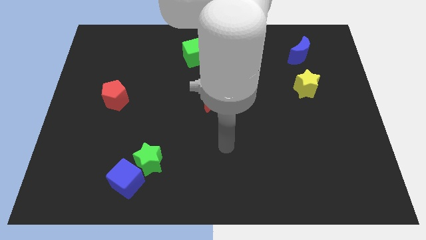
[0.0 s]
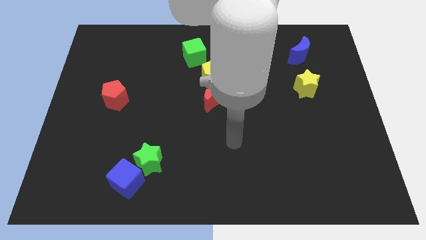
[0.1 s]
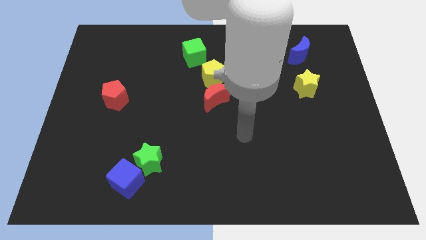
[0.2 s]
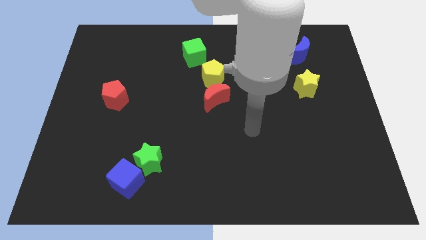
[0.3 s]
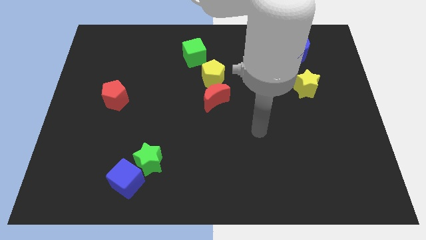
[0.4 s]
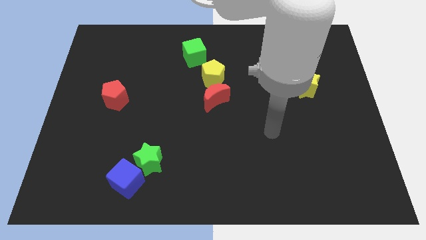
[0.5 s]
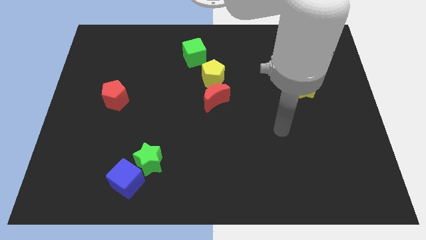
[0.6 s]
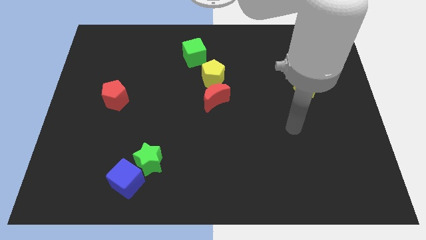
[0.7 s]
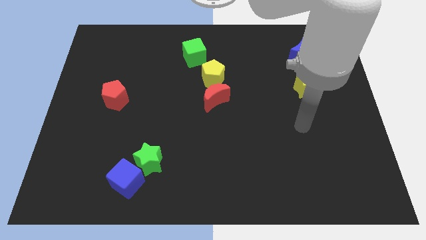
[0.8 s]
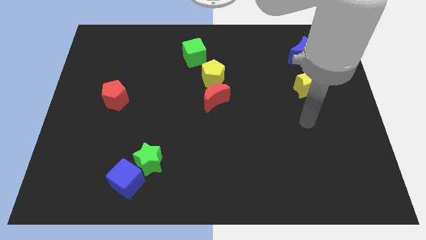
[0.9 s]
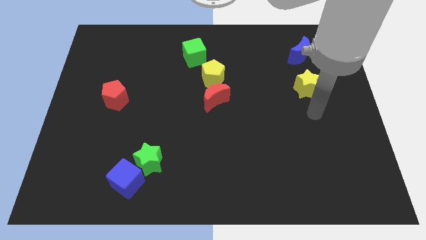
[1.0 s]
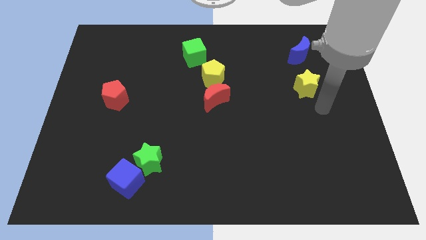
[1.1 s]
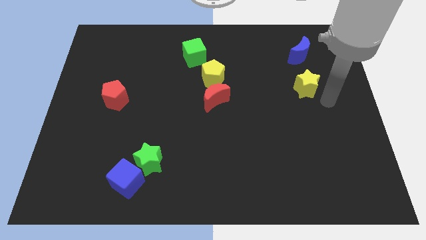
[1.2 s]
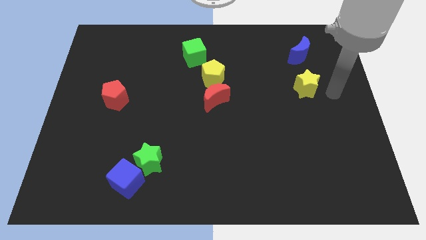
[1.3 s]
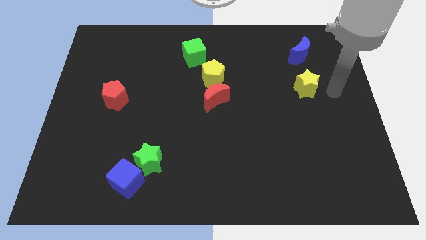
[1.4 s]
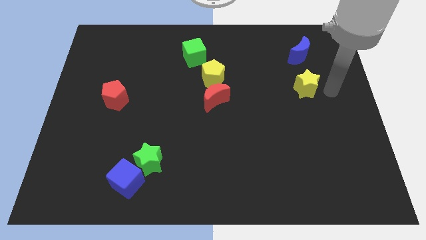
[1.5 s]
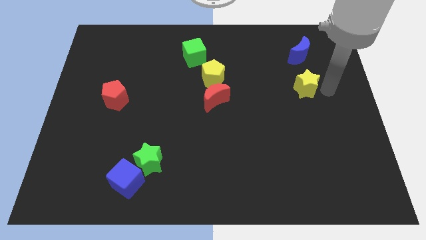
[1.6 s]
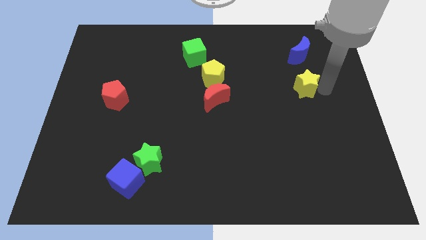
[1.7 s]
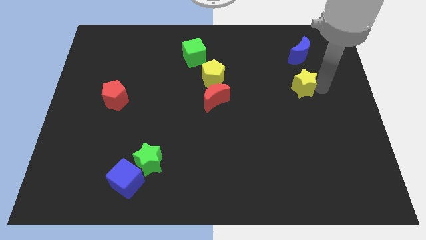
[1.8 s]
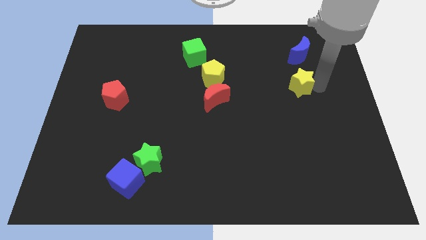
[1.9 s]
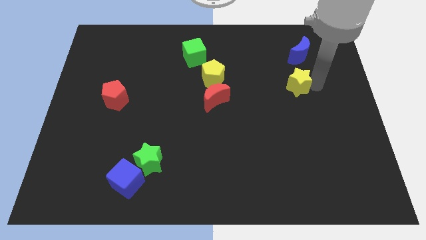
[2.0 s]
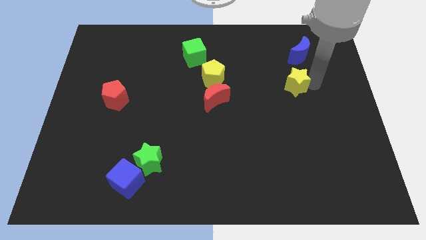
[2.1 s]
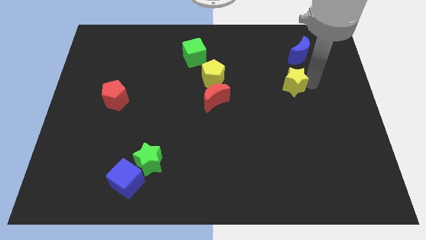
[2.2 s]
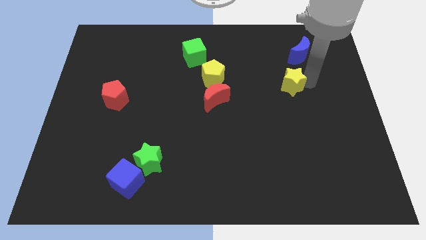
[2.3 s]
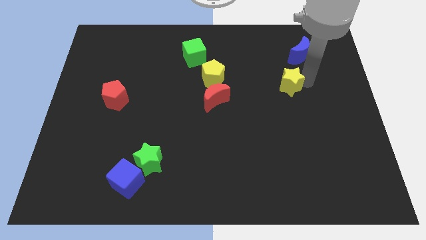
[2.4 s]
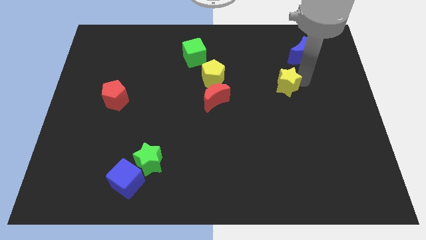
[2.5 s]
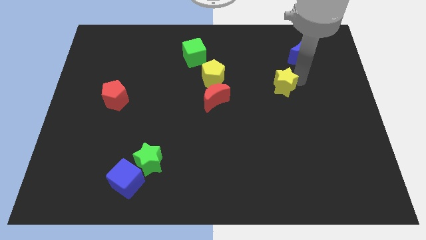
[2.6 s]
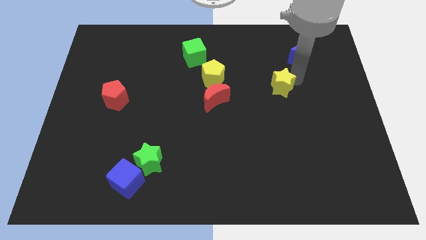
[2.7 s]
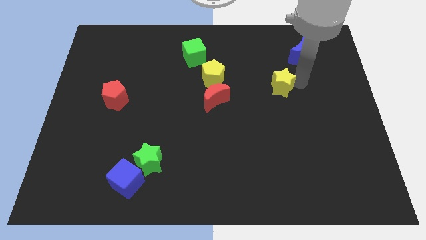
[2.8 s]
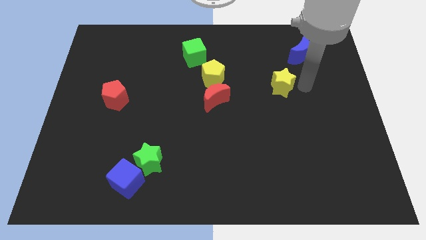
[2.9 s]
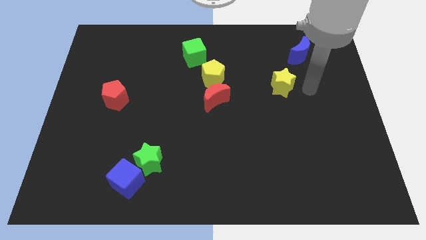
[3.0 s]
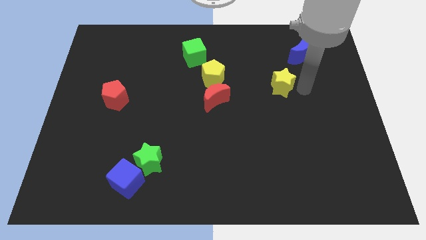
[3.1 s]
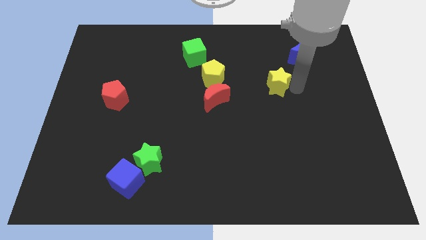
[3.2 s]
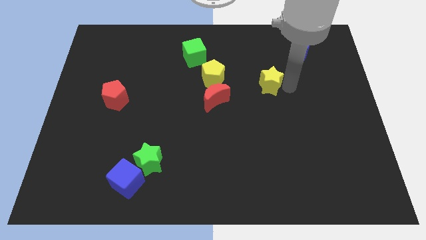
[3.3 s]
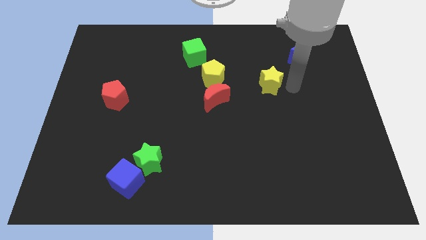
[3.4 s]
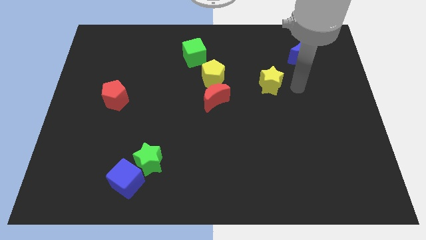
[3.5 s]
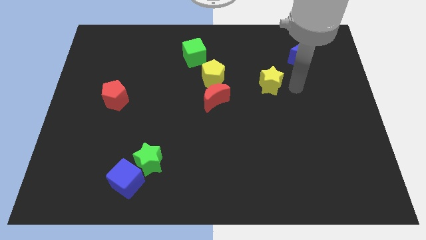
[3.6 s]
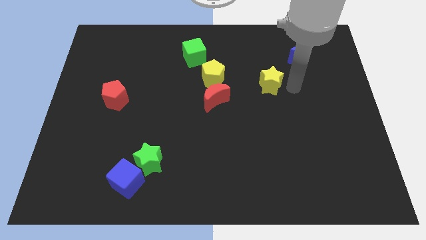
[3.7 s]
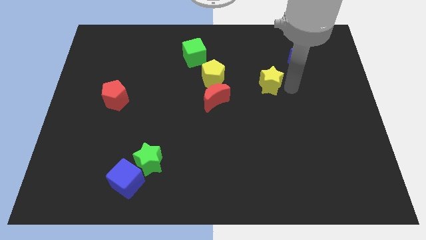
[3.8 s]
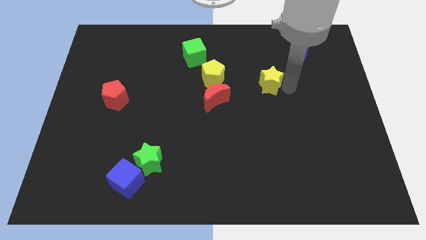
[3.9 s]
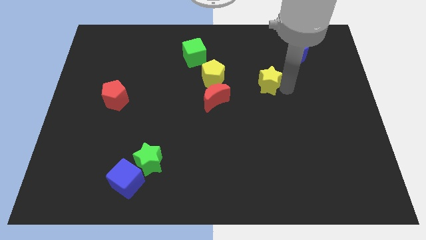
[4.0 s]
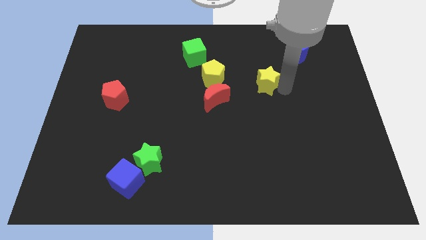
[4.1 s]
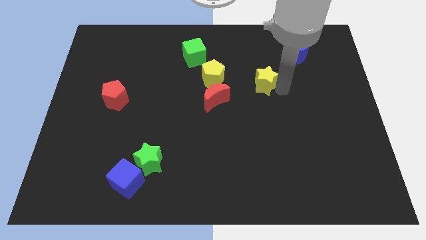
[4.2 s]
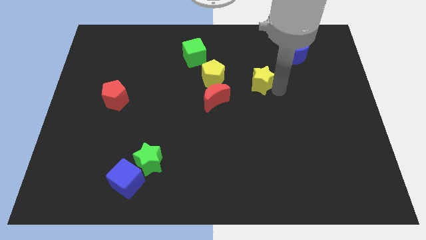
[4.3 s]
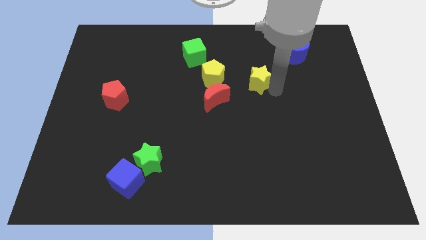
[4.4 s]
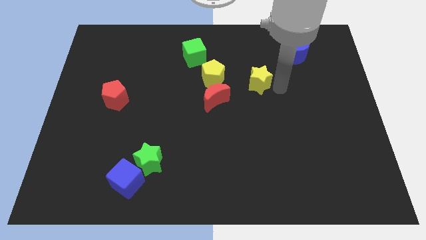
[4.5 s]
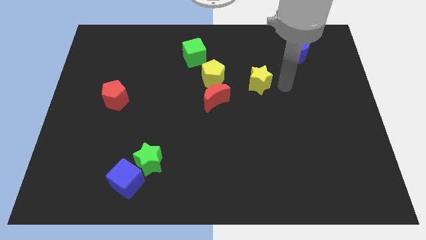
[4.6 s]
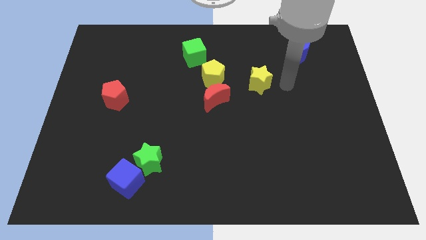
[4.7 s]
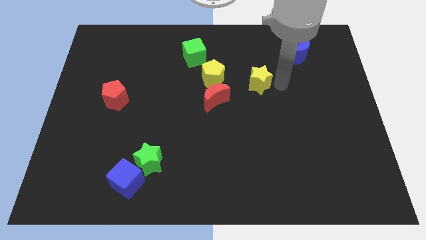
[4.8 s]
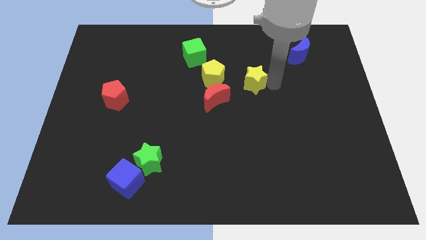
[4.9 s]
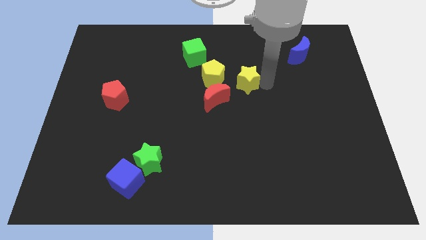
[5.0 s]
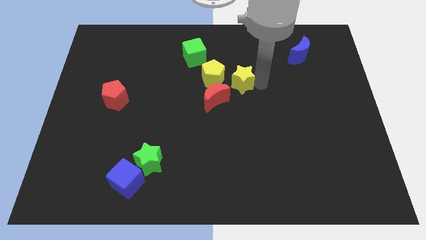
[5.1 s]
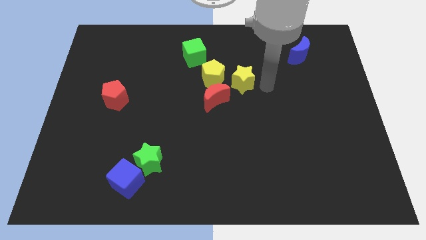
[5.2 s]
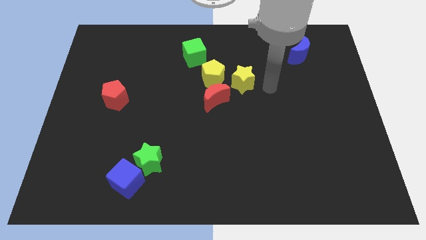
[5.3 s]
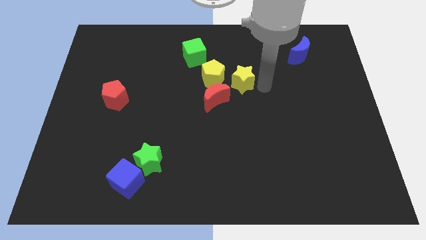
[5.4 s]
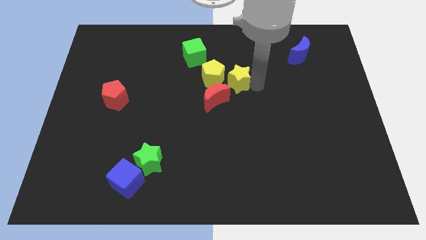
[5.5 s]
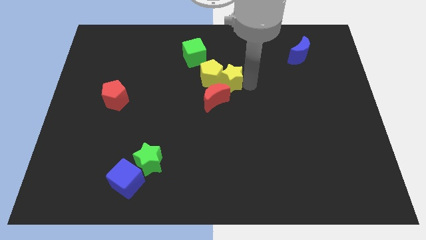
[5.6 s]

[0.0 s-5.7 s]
slide the yellow star close to the yellow pentagon
